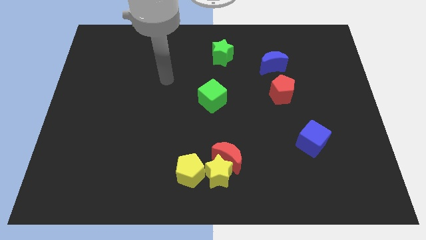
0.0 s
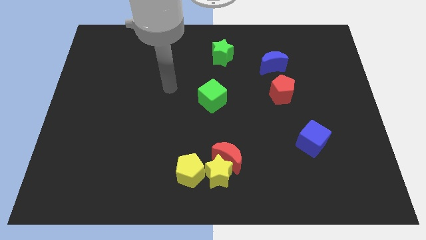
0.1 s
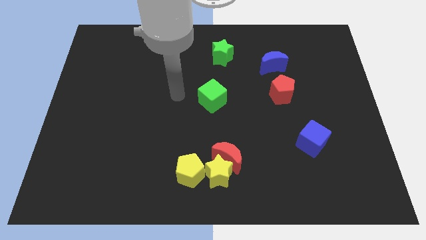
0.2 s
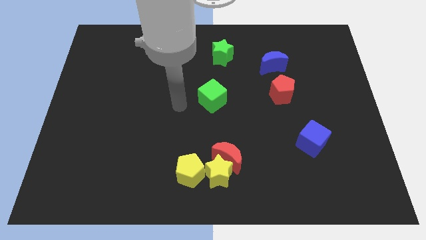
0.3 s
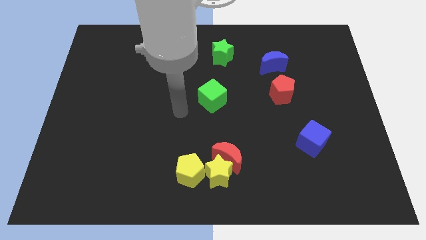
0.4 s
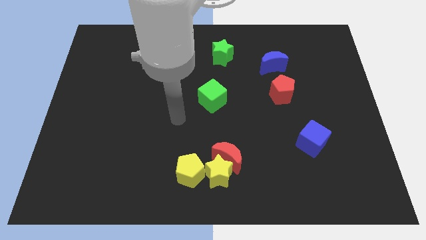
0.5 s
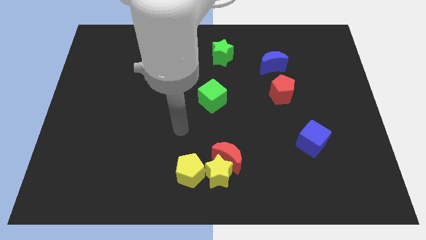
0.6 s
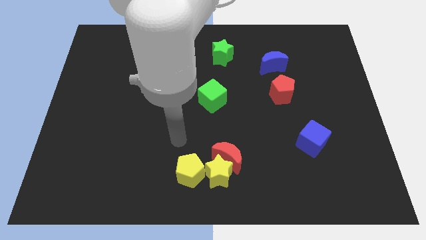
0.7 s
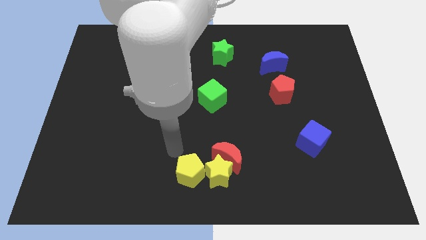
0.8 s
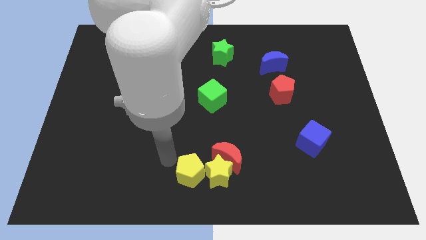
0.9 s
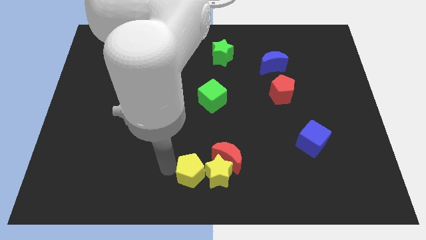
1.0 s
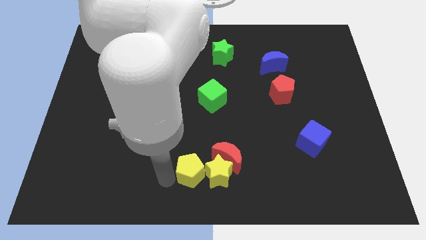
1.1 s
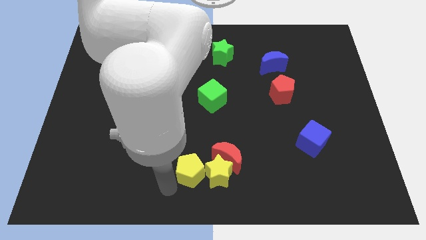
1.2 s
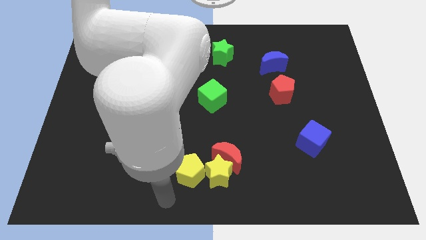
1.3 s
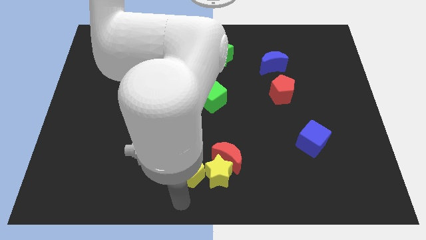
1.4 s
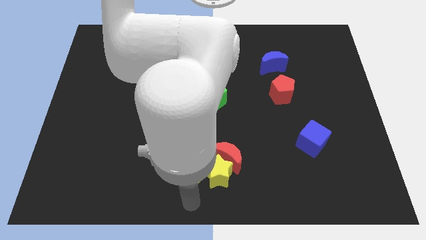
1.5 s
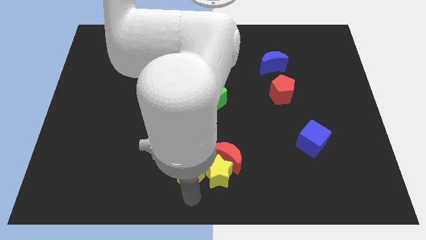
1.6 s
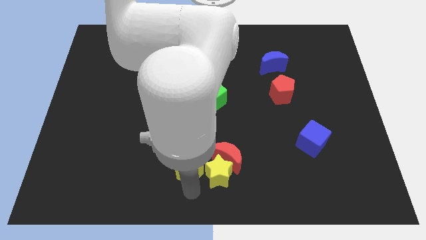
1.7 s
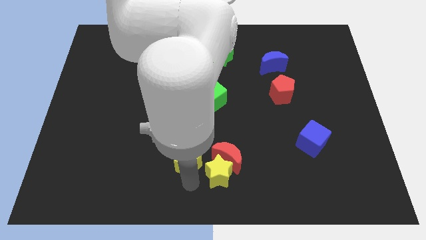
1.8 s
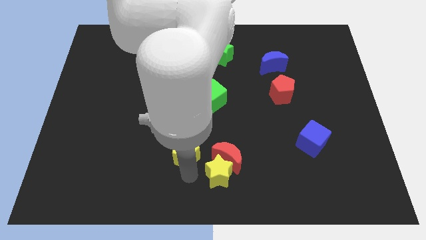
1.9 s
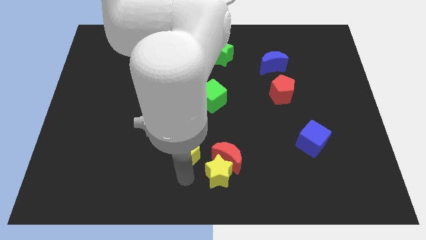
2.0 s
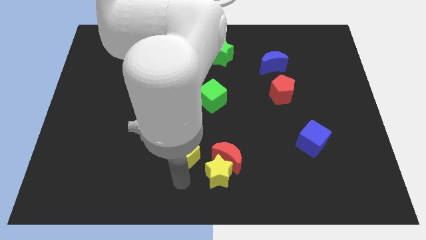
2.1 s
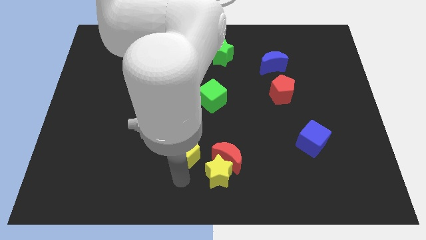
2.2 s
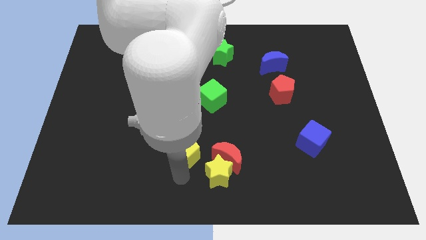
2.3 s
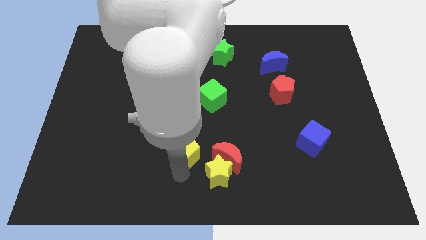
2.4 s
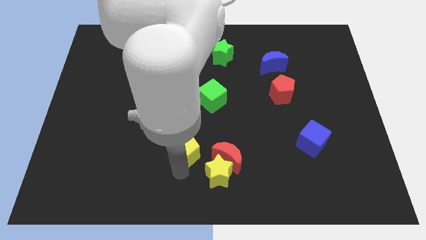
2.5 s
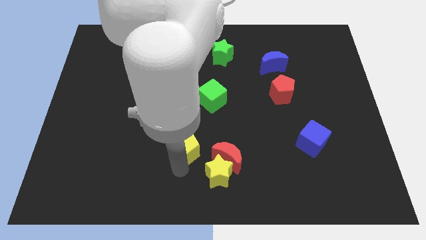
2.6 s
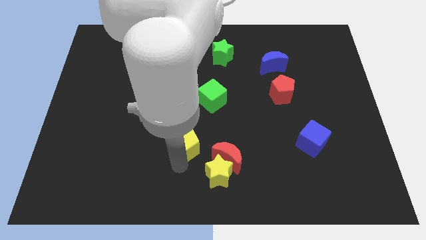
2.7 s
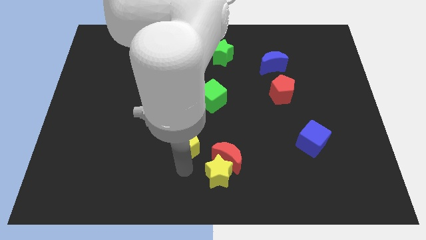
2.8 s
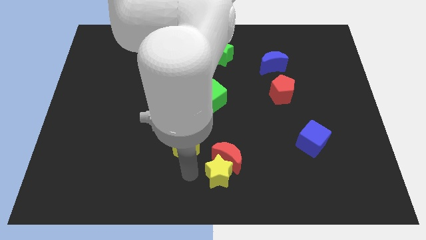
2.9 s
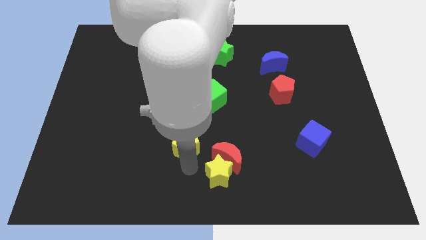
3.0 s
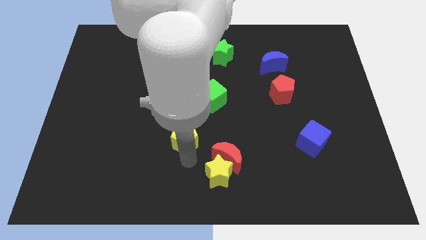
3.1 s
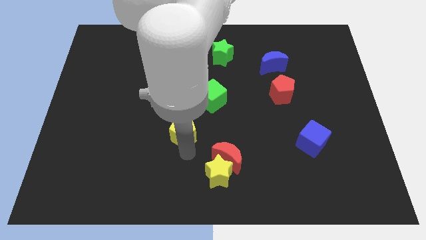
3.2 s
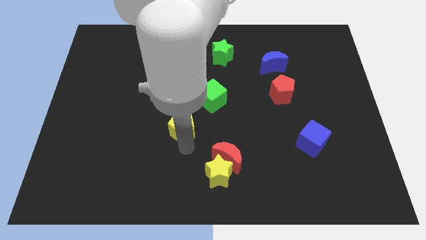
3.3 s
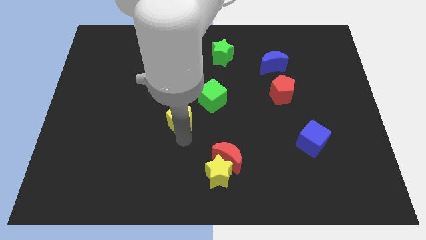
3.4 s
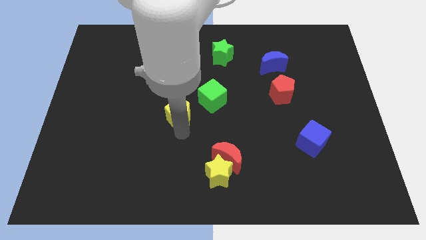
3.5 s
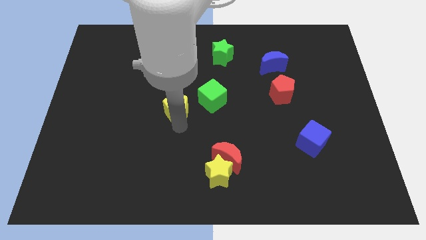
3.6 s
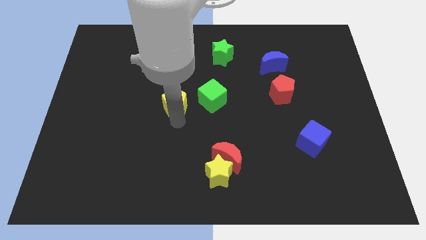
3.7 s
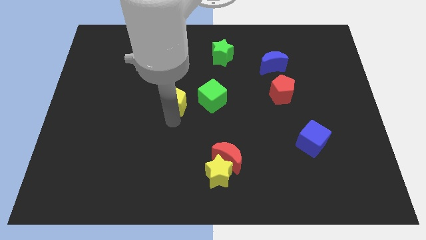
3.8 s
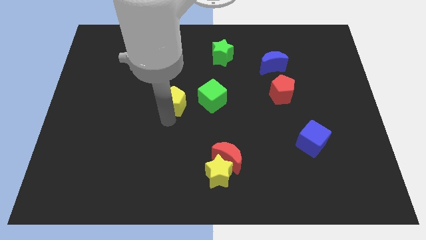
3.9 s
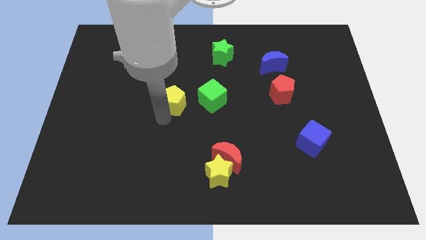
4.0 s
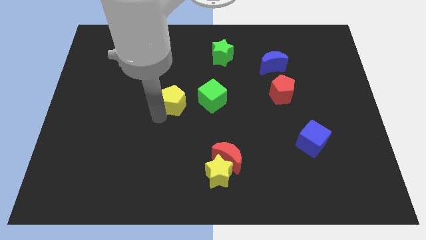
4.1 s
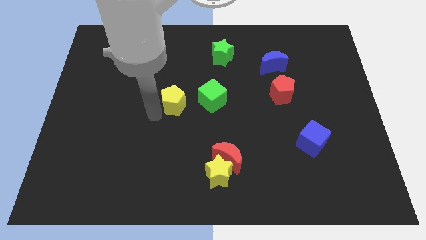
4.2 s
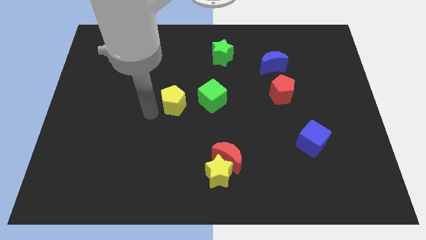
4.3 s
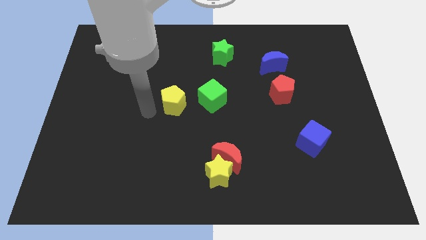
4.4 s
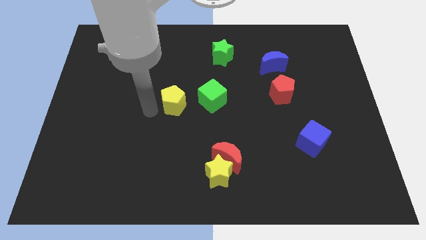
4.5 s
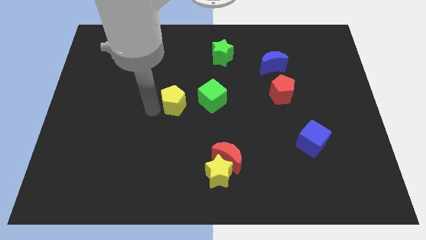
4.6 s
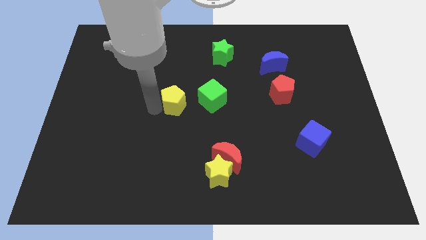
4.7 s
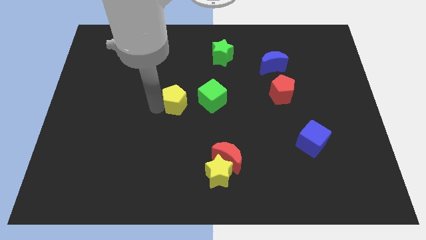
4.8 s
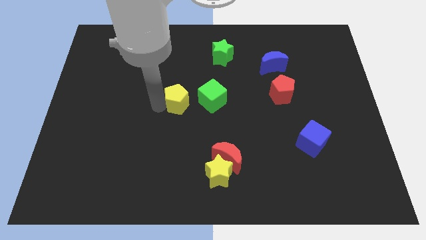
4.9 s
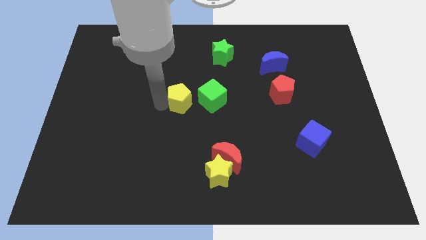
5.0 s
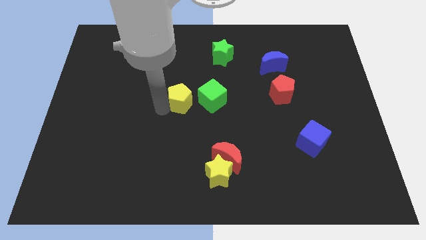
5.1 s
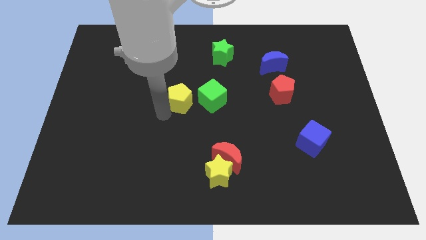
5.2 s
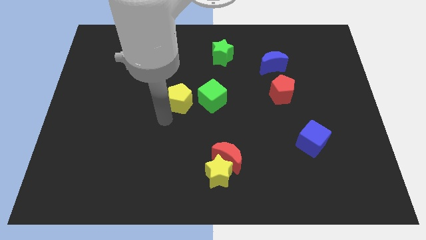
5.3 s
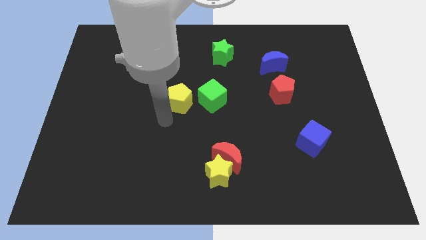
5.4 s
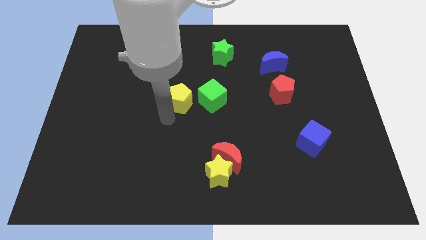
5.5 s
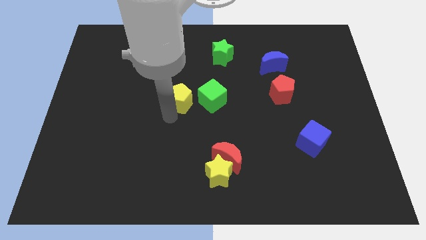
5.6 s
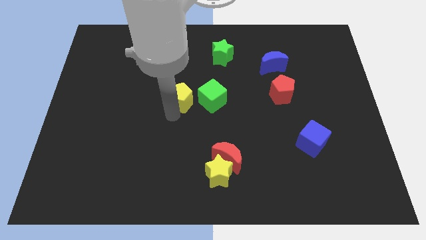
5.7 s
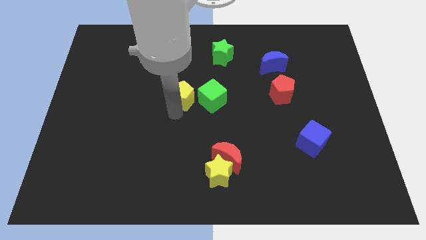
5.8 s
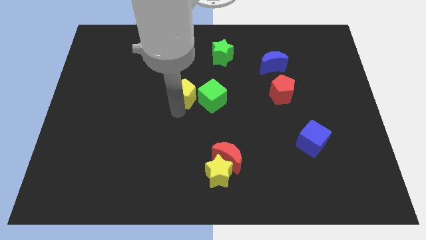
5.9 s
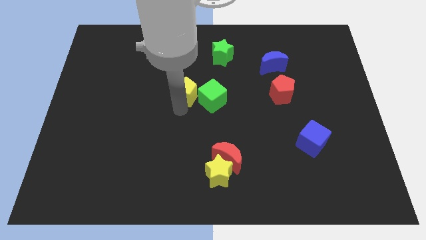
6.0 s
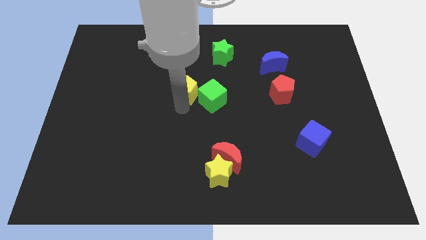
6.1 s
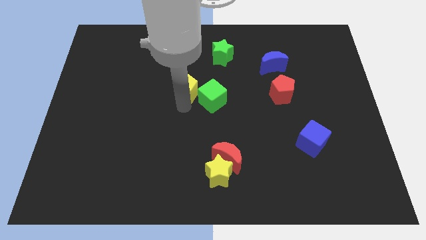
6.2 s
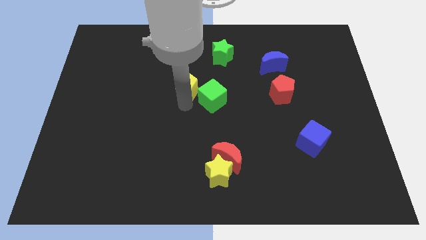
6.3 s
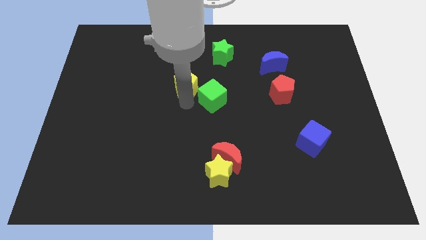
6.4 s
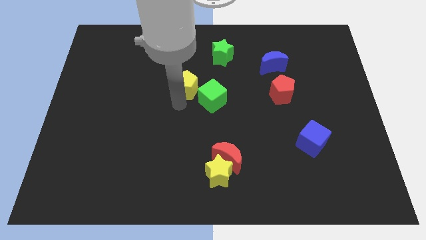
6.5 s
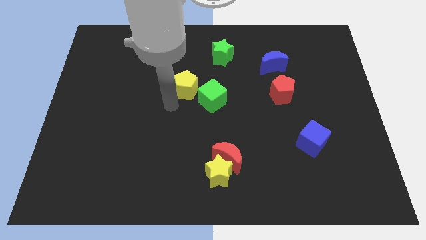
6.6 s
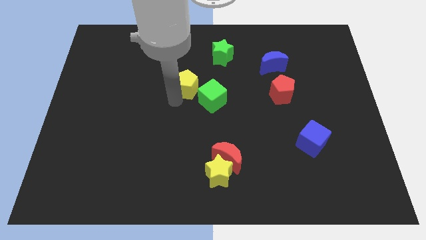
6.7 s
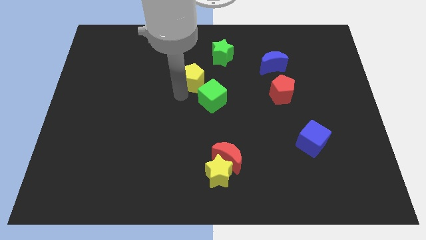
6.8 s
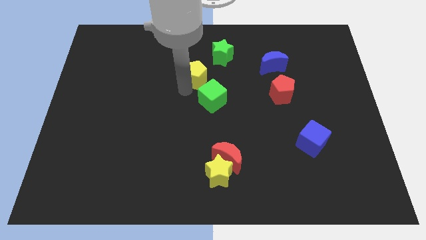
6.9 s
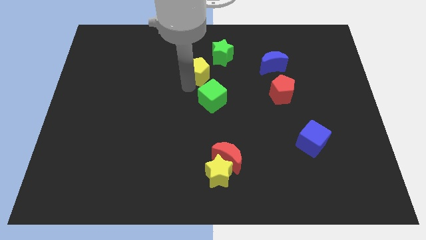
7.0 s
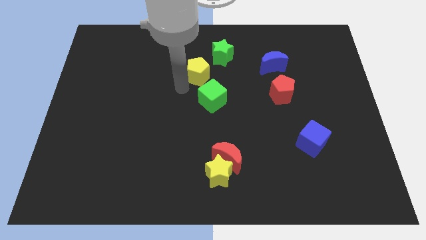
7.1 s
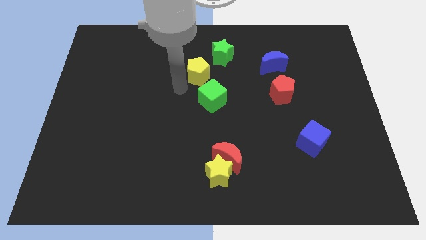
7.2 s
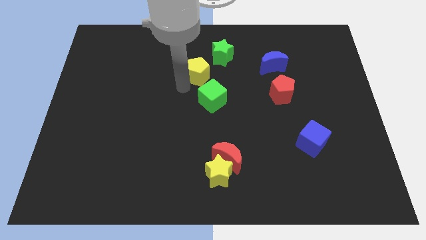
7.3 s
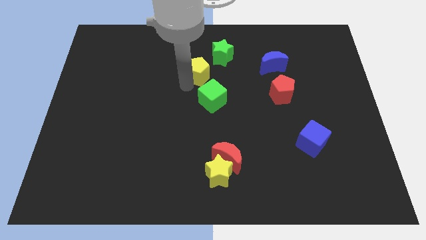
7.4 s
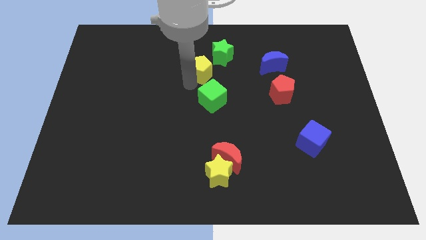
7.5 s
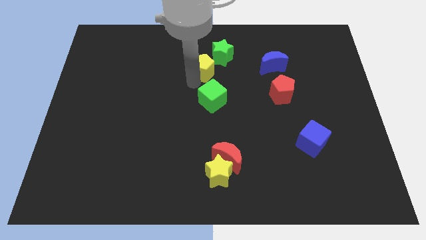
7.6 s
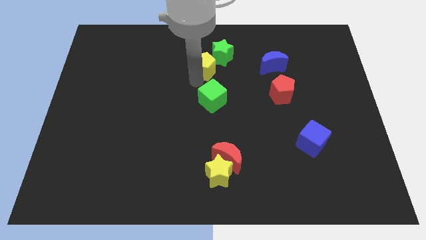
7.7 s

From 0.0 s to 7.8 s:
put the yellow pentagon to the green star
